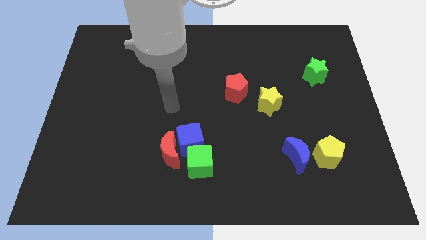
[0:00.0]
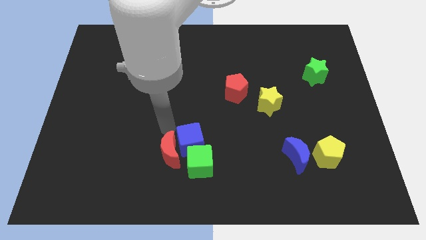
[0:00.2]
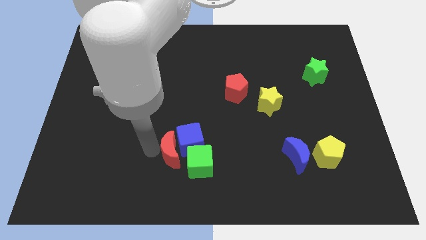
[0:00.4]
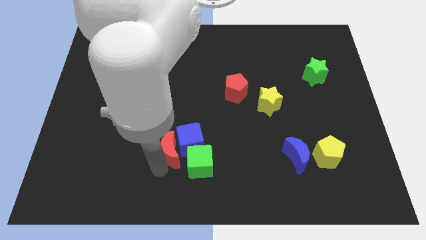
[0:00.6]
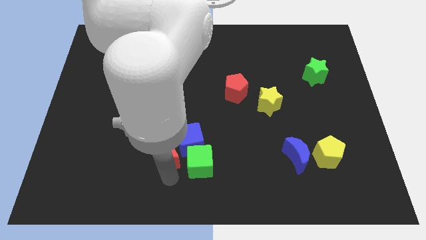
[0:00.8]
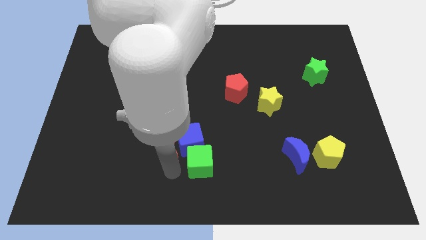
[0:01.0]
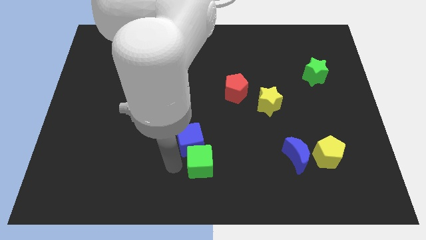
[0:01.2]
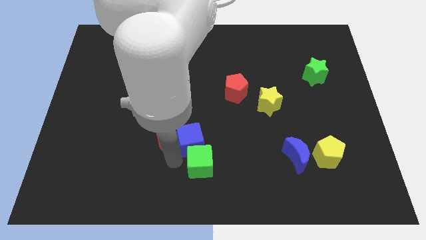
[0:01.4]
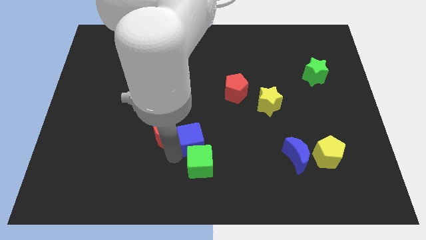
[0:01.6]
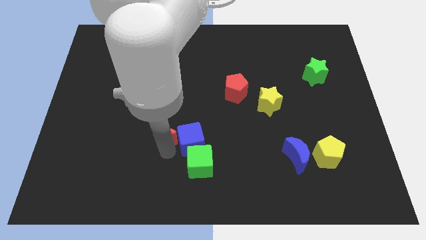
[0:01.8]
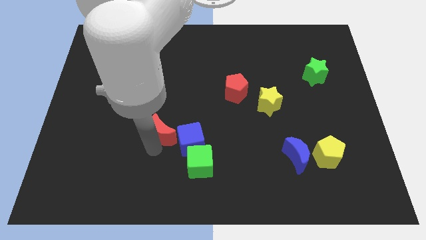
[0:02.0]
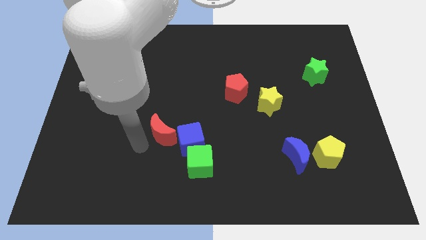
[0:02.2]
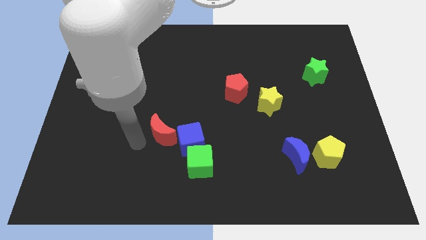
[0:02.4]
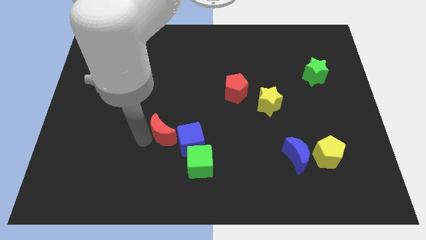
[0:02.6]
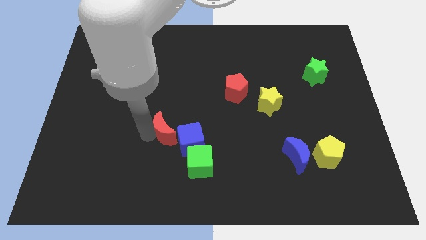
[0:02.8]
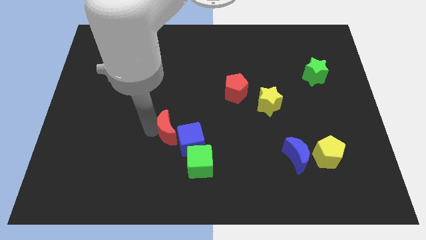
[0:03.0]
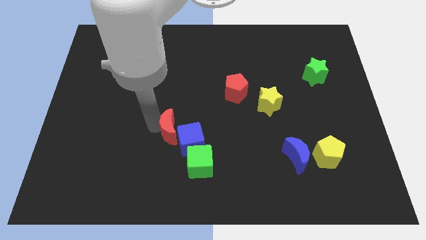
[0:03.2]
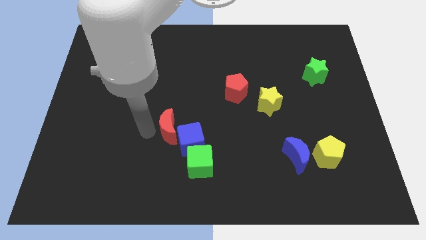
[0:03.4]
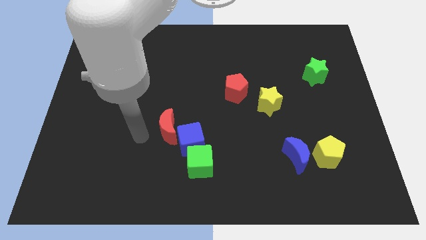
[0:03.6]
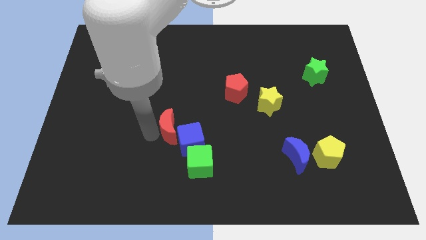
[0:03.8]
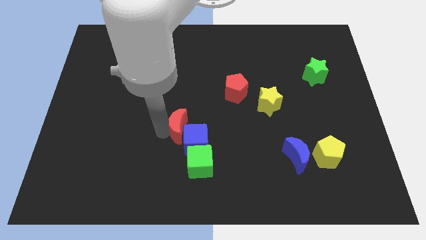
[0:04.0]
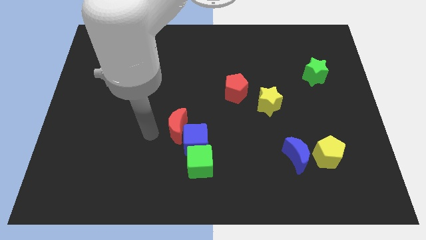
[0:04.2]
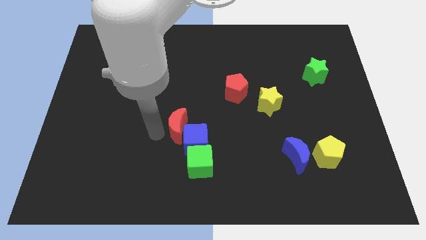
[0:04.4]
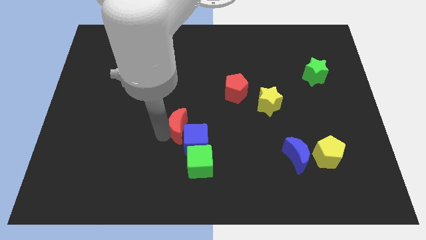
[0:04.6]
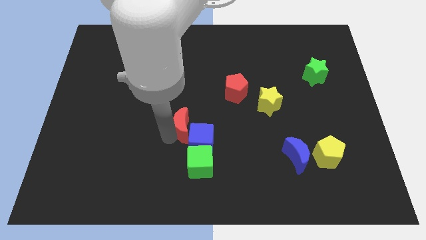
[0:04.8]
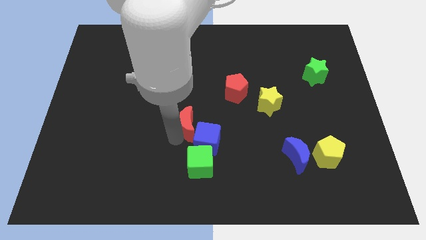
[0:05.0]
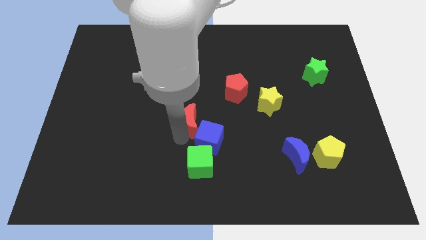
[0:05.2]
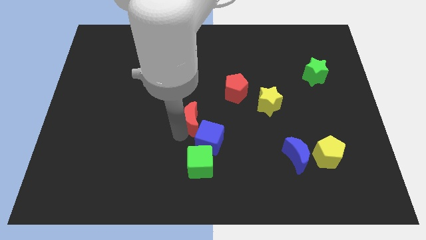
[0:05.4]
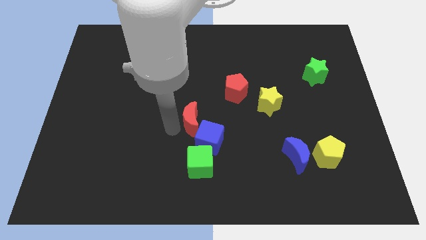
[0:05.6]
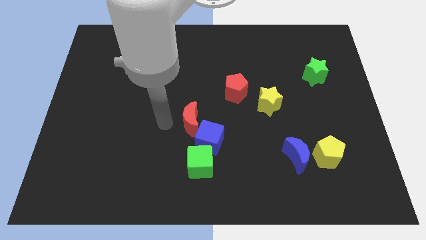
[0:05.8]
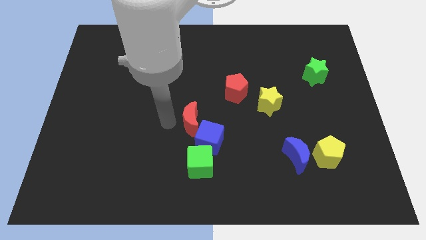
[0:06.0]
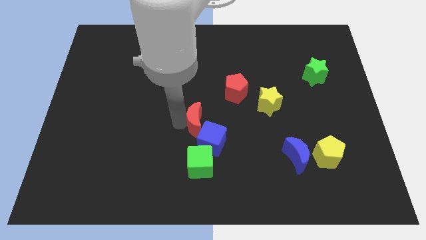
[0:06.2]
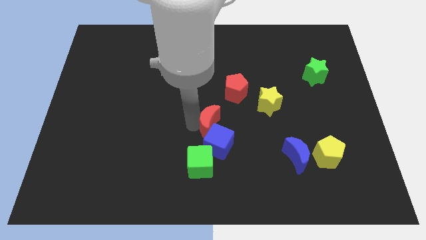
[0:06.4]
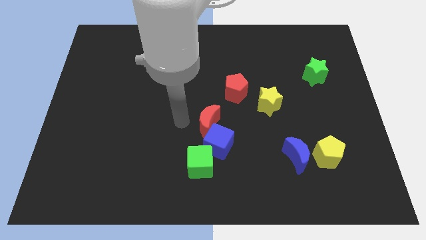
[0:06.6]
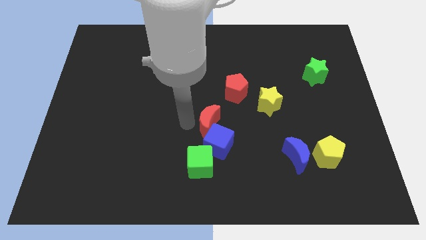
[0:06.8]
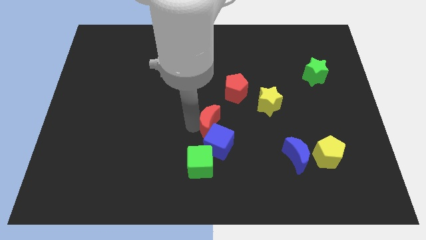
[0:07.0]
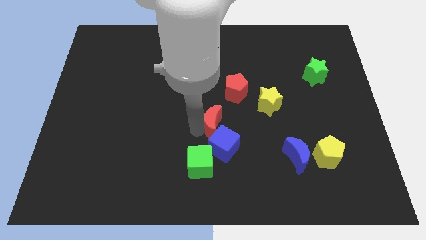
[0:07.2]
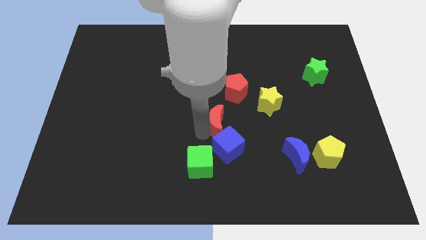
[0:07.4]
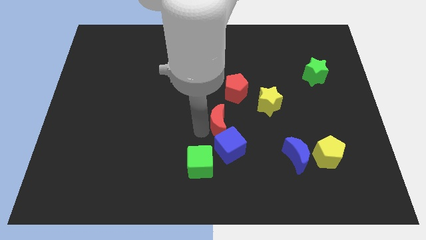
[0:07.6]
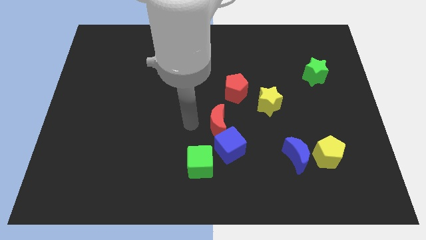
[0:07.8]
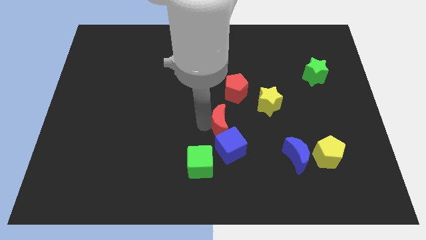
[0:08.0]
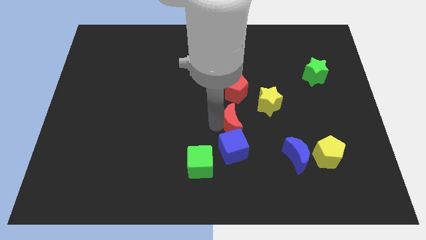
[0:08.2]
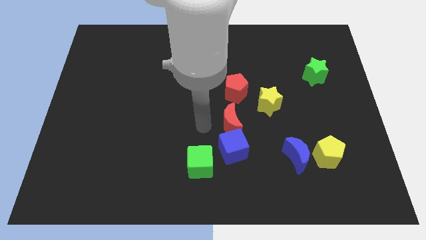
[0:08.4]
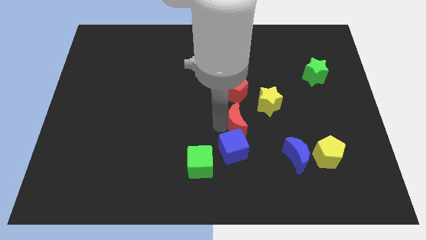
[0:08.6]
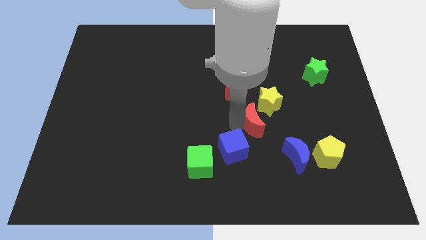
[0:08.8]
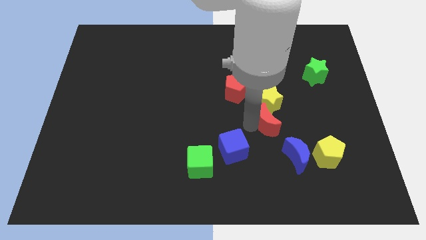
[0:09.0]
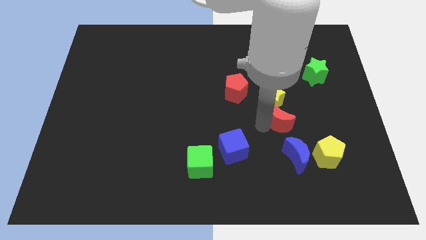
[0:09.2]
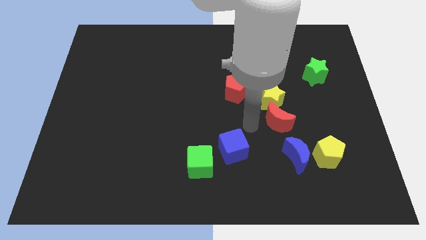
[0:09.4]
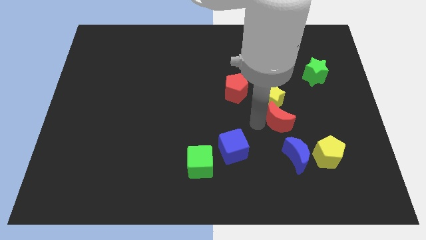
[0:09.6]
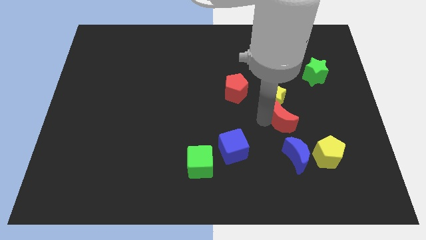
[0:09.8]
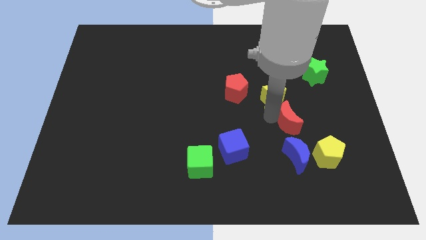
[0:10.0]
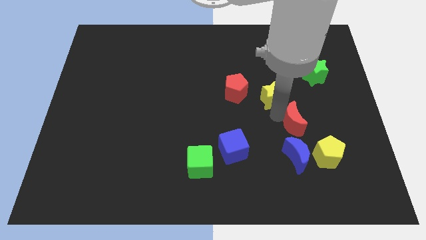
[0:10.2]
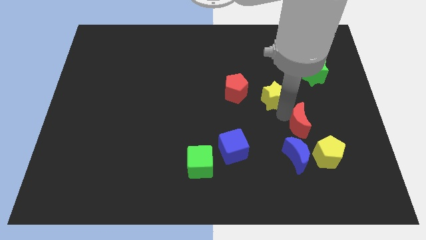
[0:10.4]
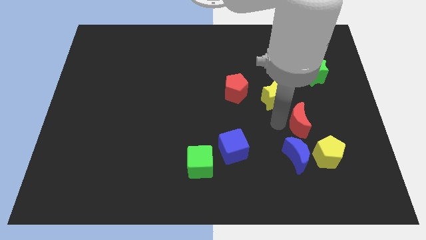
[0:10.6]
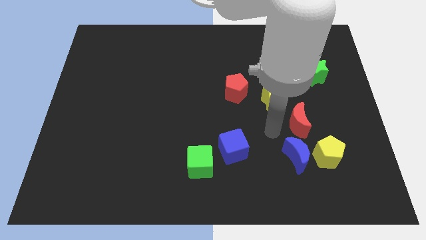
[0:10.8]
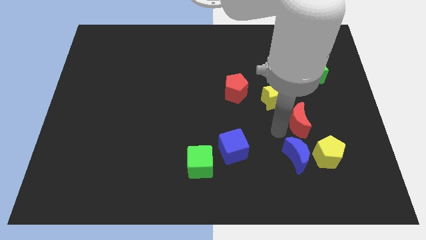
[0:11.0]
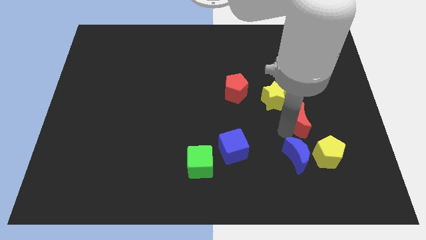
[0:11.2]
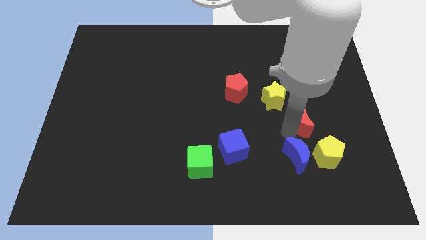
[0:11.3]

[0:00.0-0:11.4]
put the red moon to the top side of the yellow pentagon

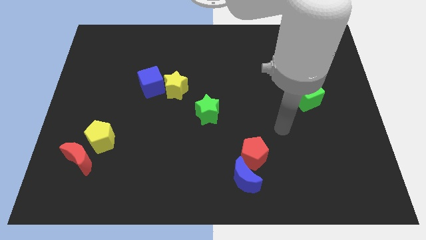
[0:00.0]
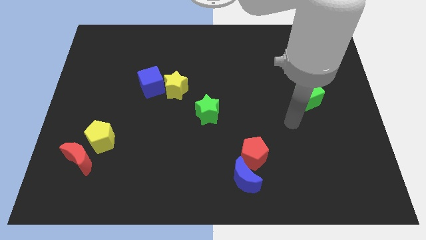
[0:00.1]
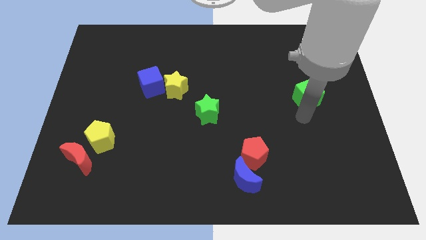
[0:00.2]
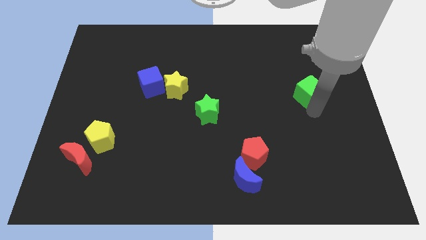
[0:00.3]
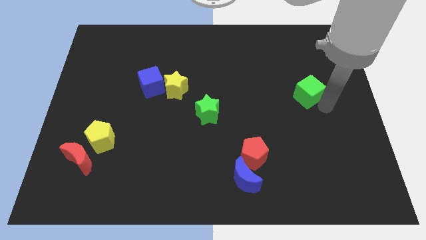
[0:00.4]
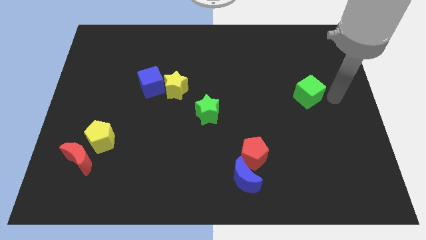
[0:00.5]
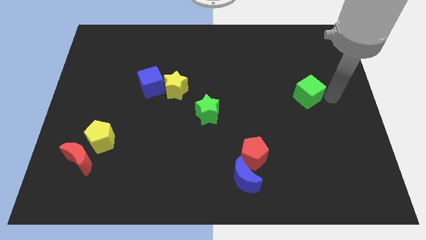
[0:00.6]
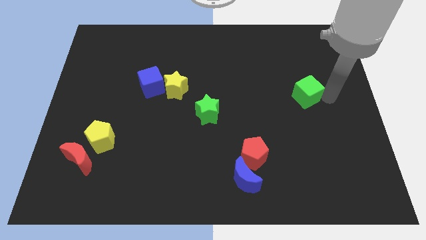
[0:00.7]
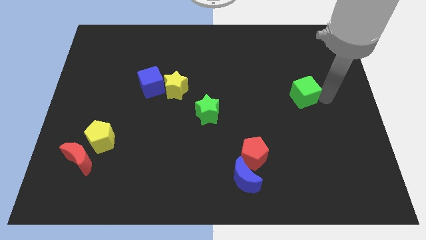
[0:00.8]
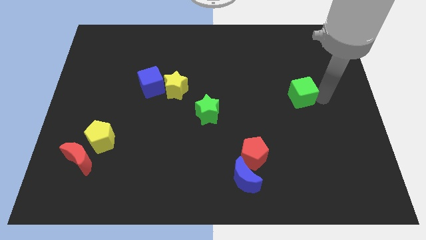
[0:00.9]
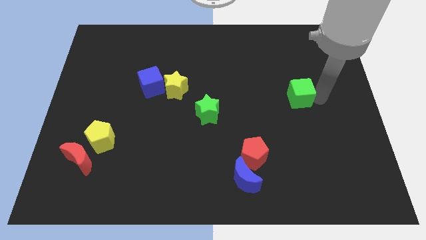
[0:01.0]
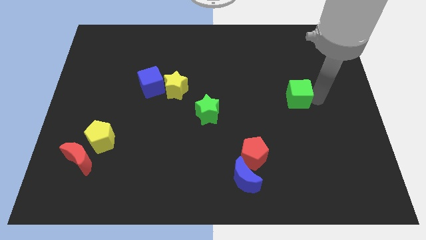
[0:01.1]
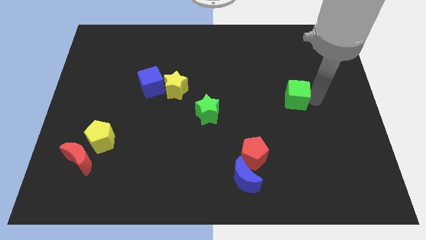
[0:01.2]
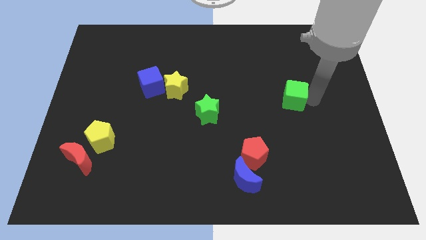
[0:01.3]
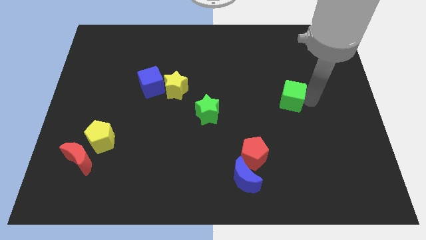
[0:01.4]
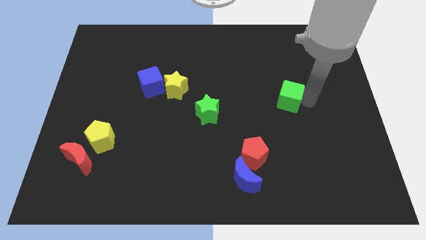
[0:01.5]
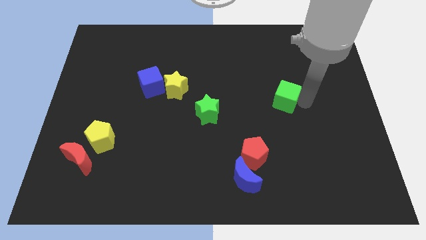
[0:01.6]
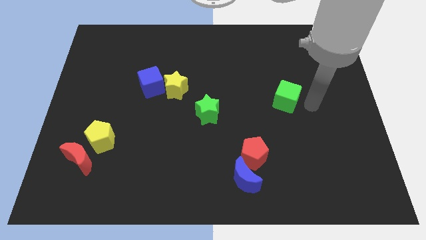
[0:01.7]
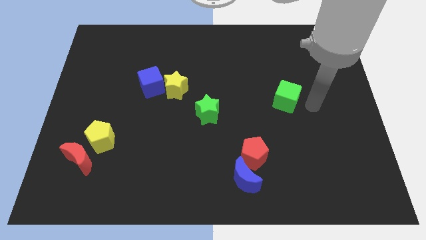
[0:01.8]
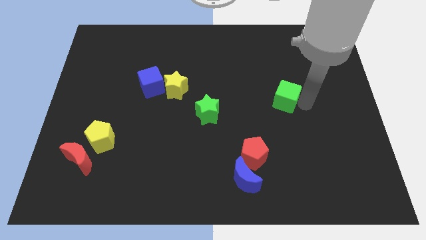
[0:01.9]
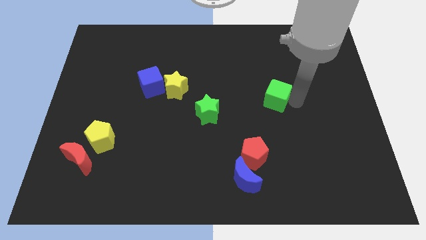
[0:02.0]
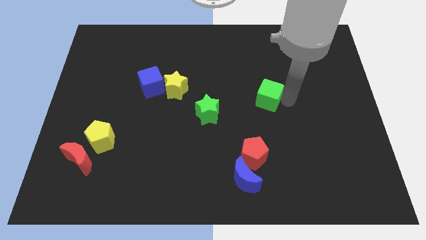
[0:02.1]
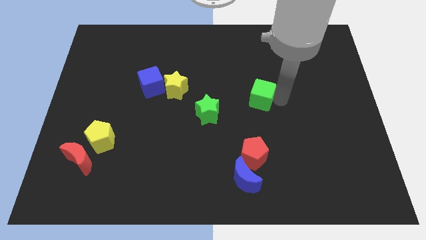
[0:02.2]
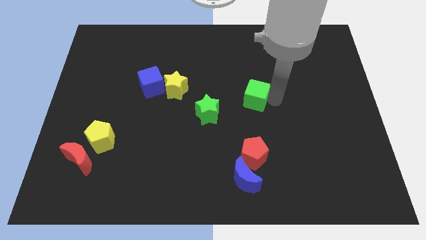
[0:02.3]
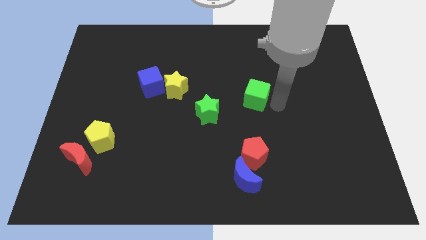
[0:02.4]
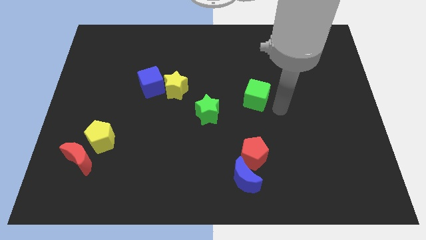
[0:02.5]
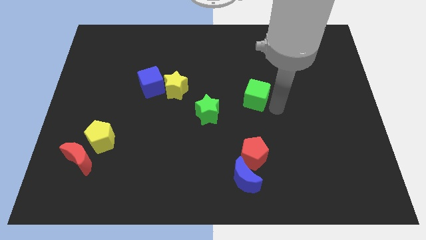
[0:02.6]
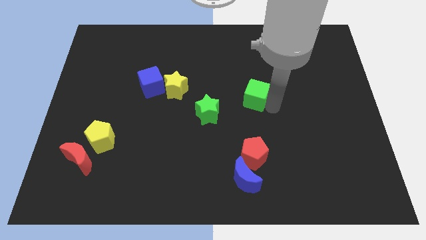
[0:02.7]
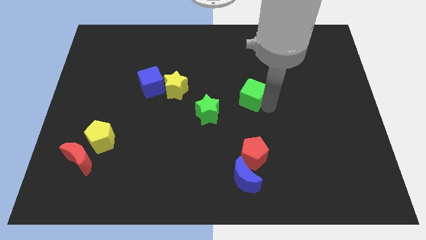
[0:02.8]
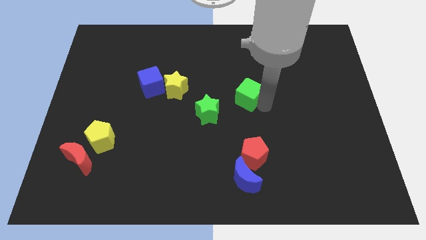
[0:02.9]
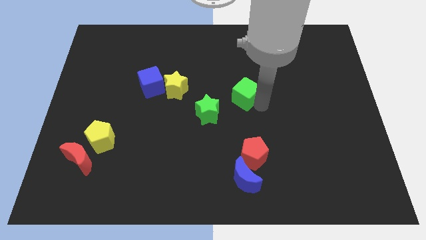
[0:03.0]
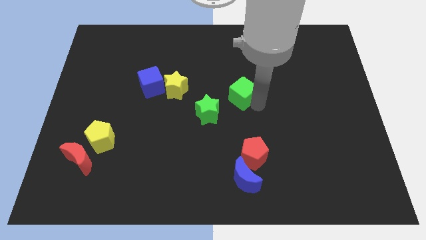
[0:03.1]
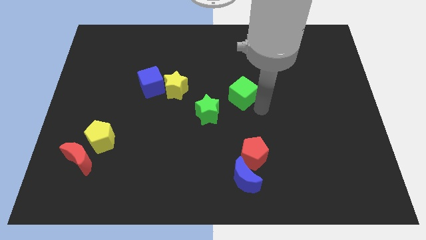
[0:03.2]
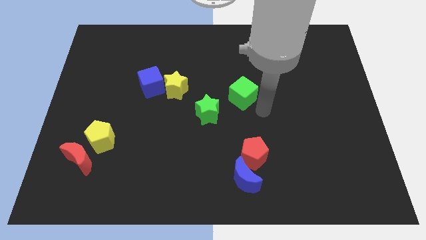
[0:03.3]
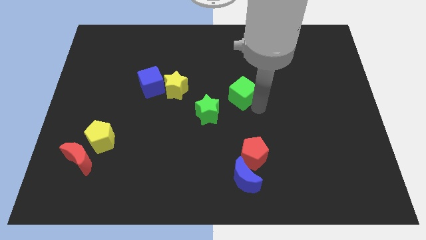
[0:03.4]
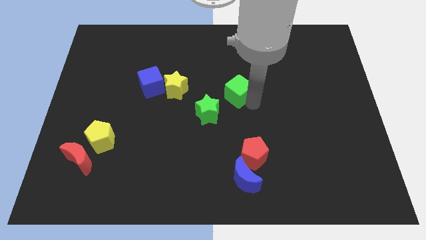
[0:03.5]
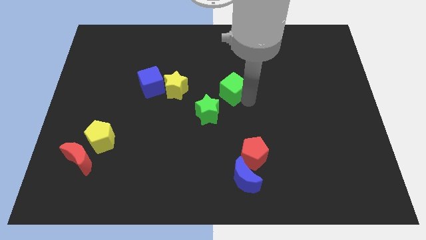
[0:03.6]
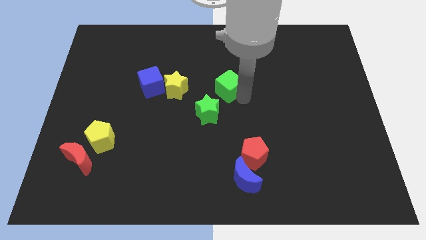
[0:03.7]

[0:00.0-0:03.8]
slide the green cube to the top of the green star
